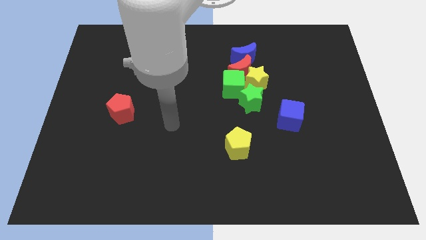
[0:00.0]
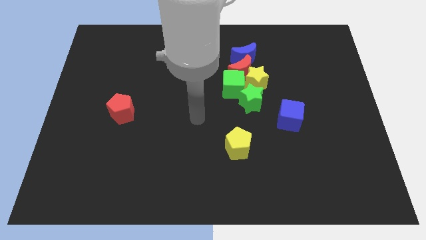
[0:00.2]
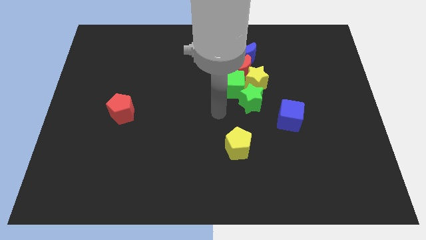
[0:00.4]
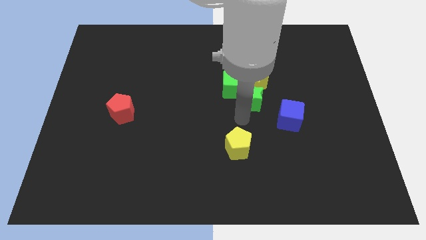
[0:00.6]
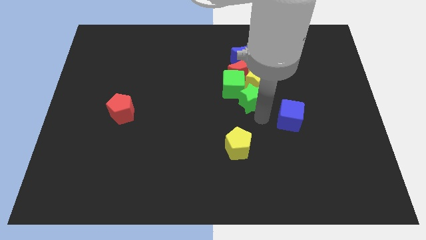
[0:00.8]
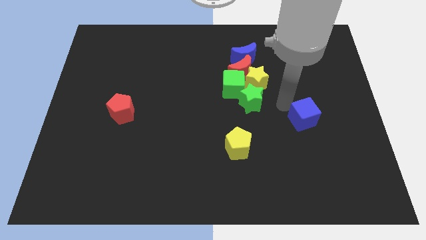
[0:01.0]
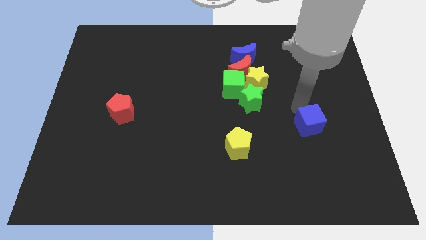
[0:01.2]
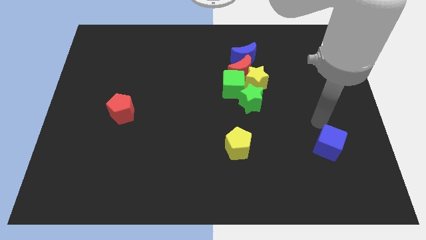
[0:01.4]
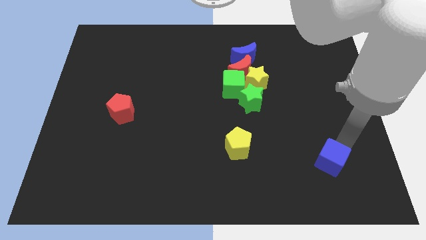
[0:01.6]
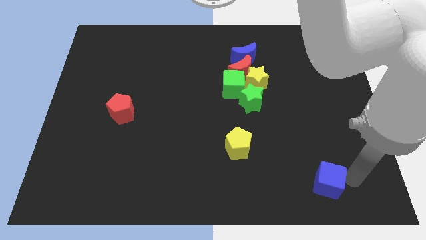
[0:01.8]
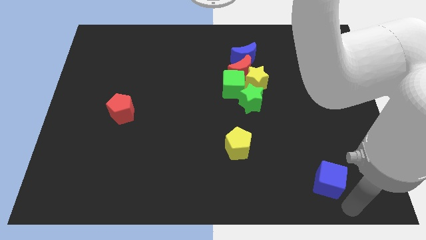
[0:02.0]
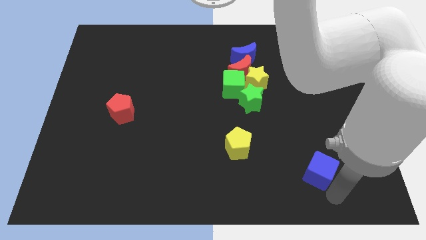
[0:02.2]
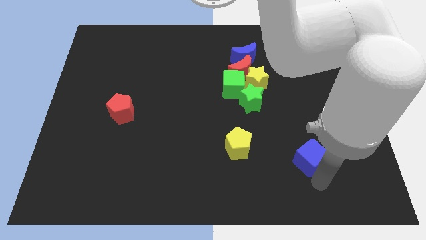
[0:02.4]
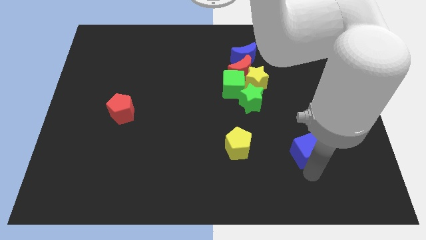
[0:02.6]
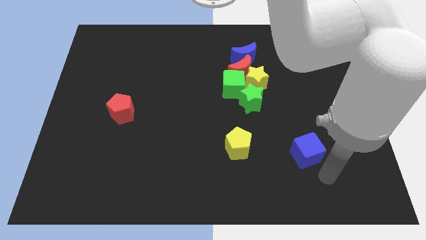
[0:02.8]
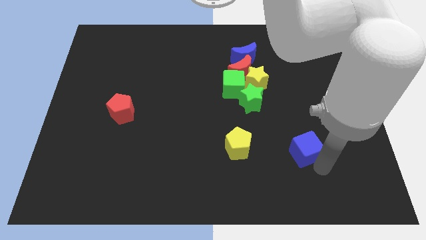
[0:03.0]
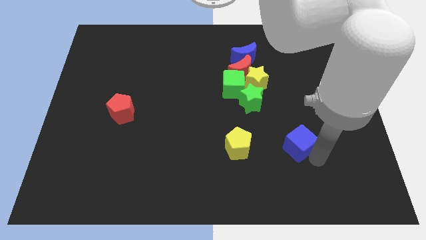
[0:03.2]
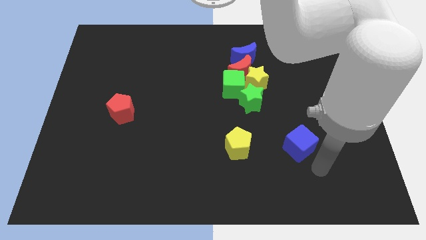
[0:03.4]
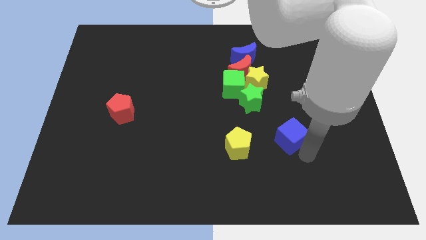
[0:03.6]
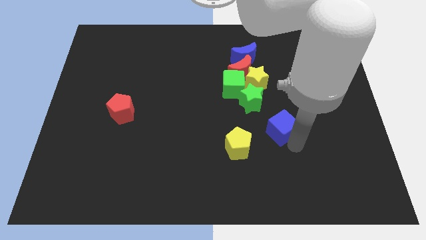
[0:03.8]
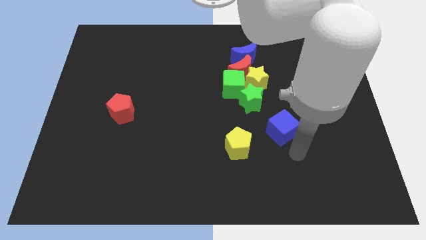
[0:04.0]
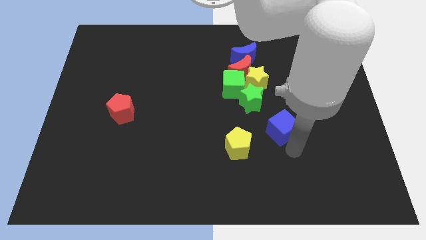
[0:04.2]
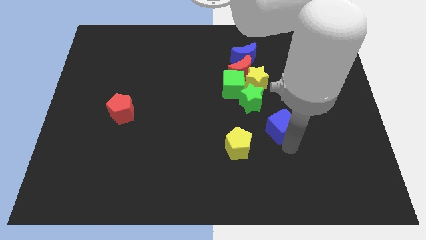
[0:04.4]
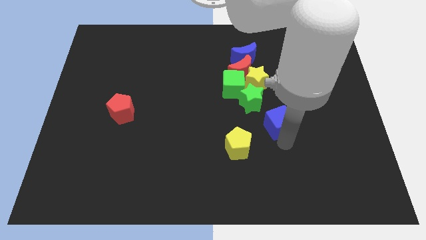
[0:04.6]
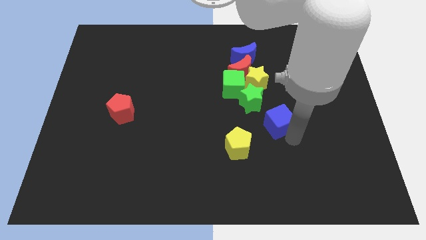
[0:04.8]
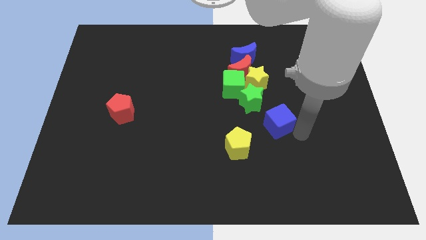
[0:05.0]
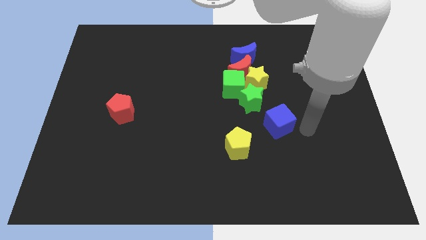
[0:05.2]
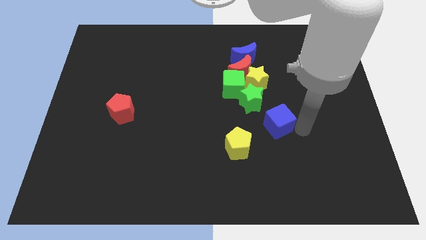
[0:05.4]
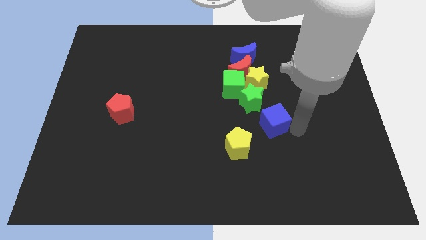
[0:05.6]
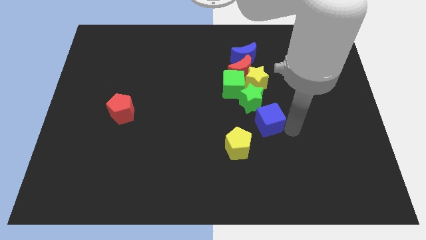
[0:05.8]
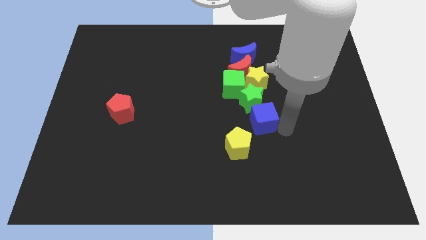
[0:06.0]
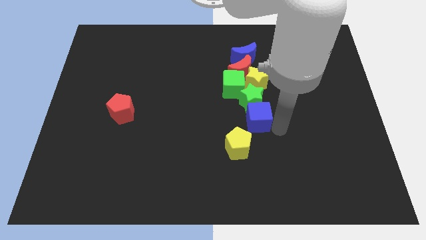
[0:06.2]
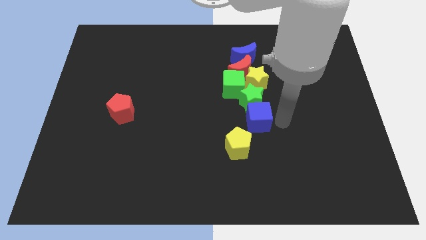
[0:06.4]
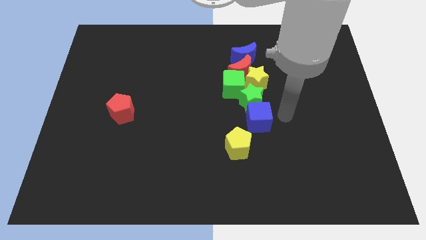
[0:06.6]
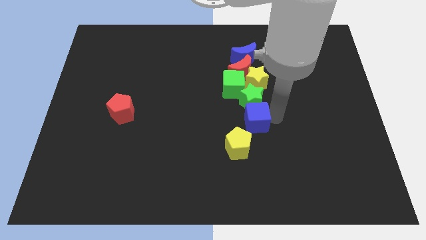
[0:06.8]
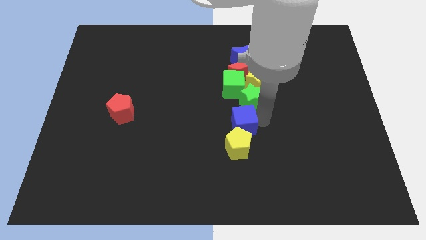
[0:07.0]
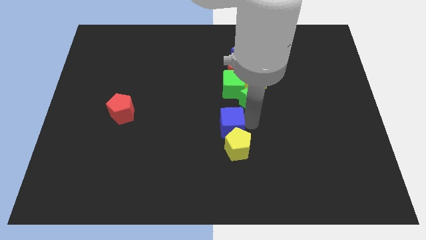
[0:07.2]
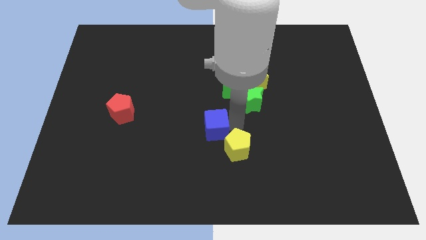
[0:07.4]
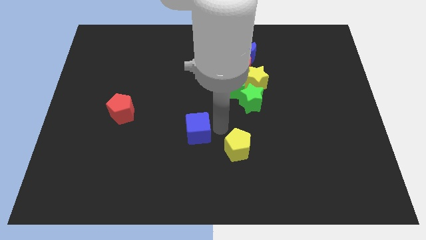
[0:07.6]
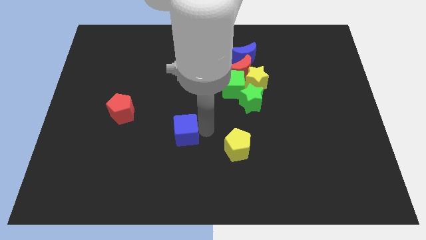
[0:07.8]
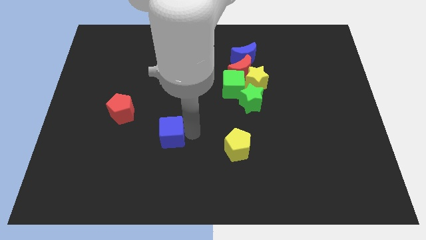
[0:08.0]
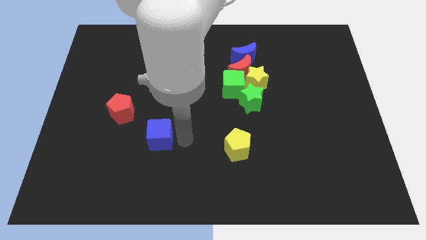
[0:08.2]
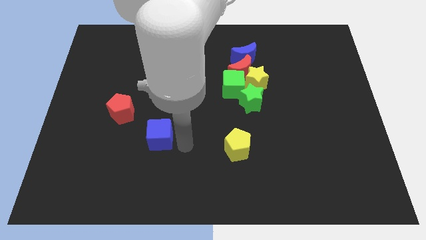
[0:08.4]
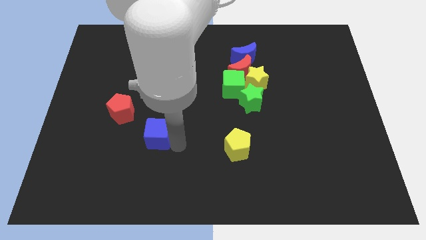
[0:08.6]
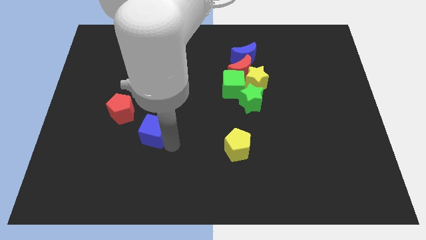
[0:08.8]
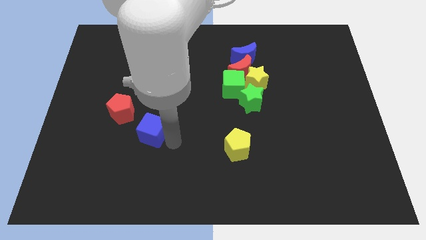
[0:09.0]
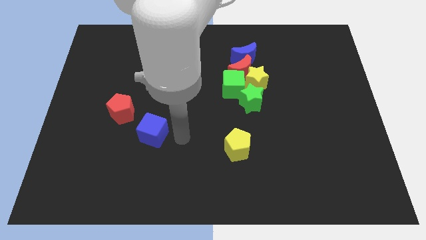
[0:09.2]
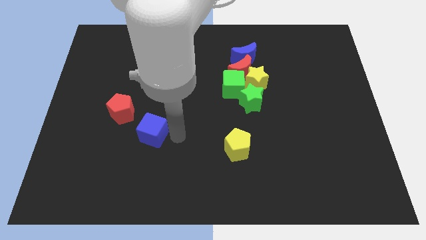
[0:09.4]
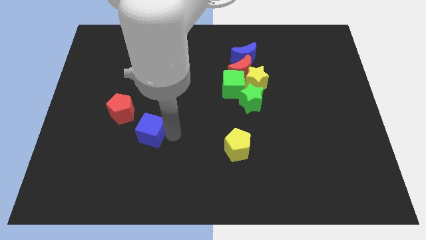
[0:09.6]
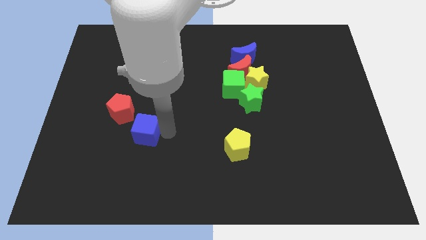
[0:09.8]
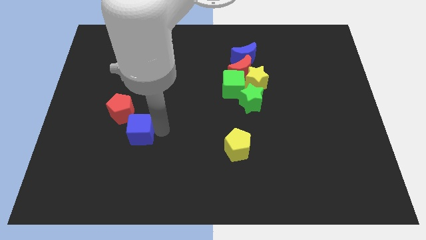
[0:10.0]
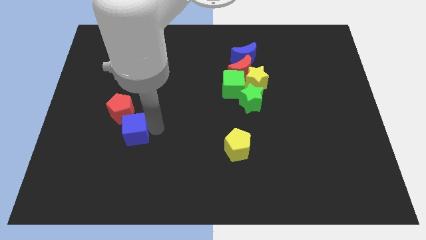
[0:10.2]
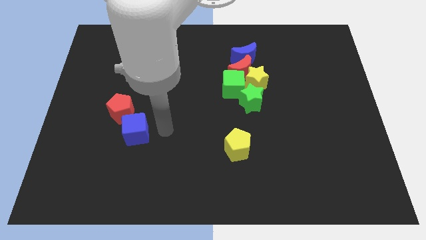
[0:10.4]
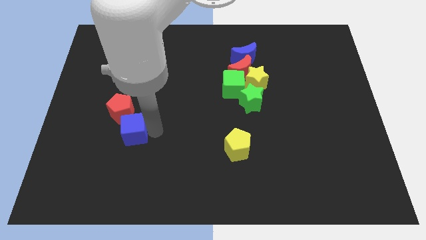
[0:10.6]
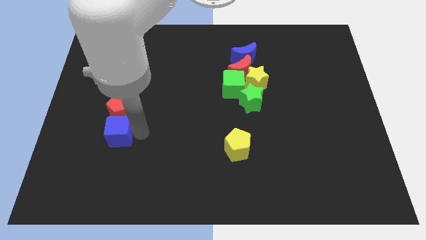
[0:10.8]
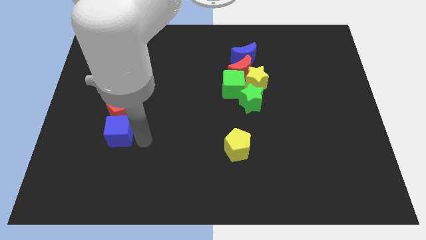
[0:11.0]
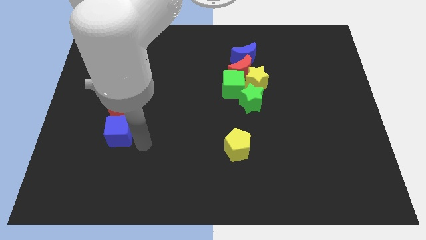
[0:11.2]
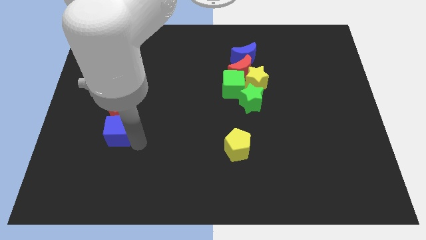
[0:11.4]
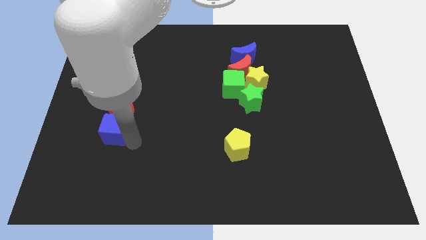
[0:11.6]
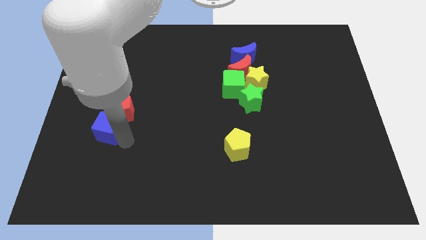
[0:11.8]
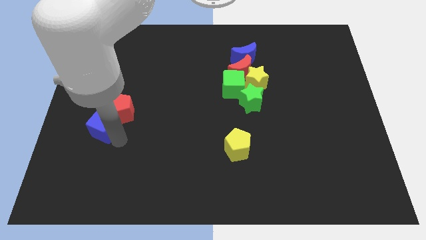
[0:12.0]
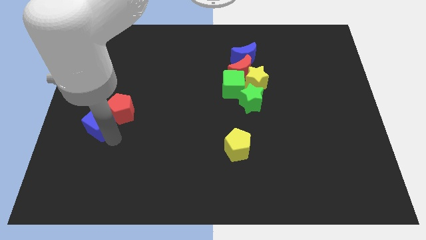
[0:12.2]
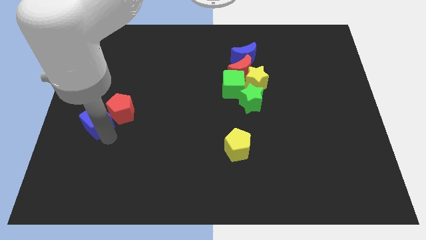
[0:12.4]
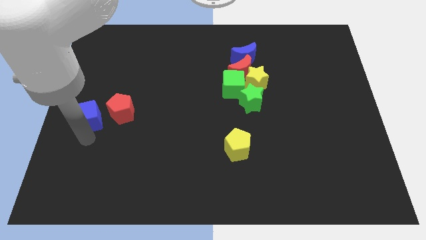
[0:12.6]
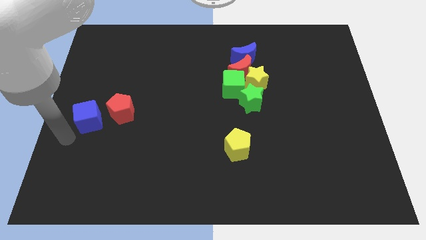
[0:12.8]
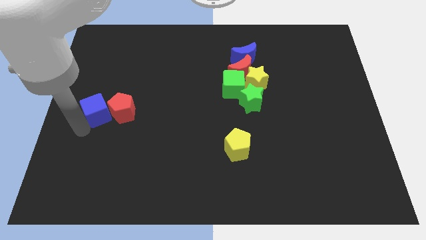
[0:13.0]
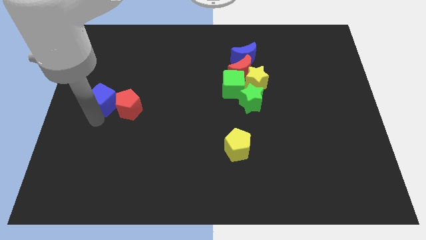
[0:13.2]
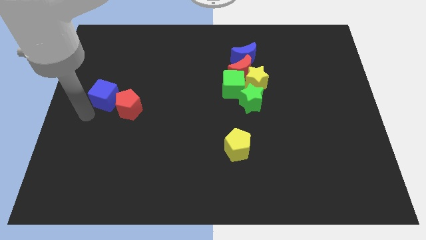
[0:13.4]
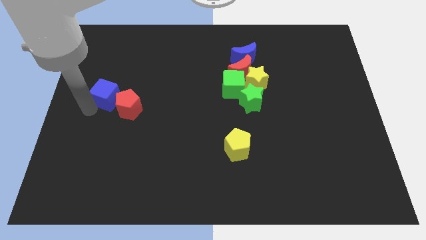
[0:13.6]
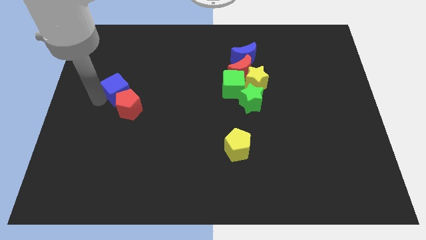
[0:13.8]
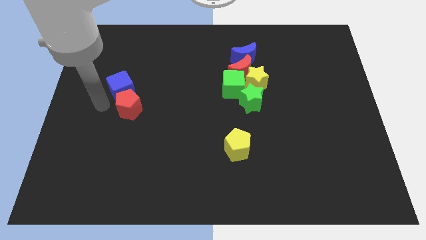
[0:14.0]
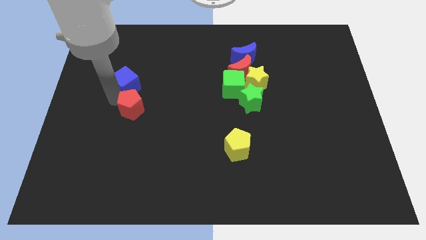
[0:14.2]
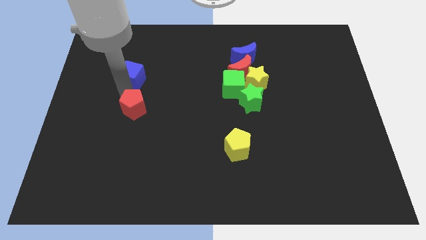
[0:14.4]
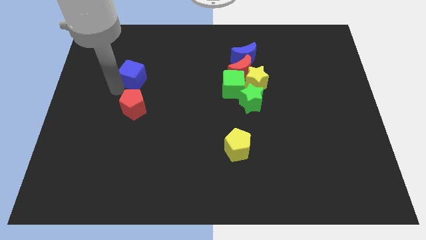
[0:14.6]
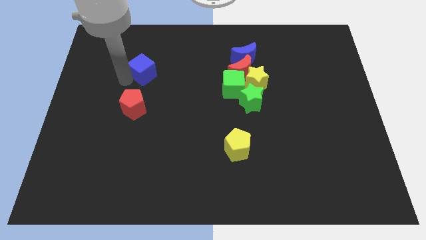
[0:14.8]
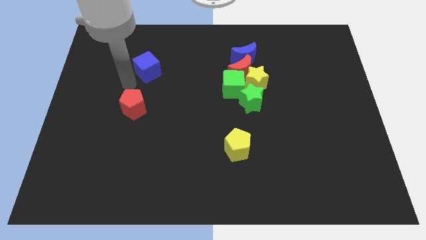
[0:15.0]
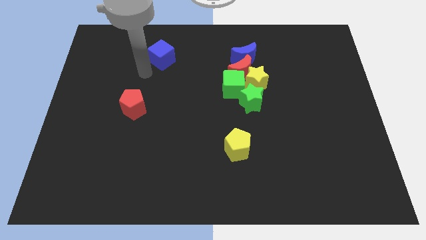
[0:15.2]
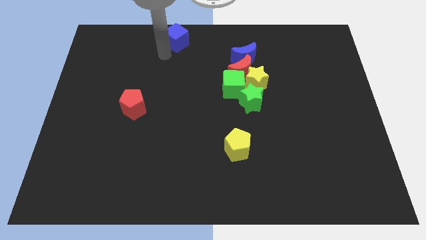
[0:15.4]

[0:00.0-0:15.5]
move the blue cube to the top
